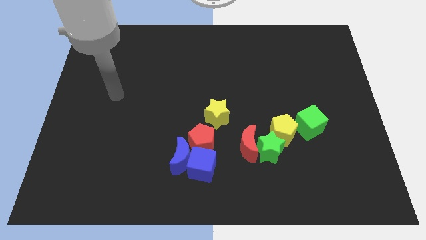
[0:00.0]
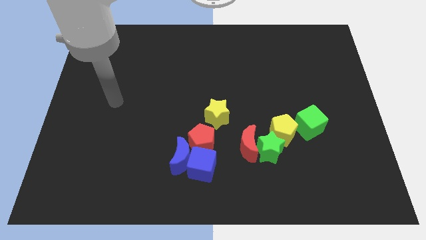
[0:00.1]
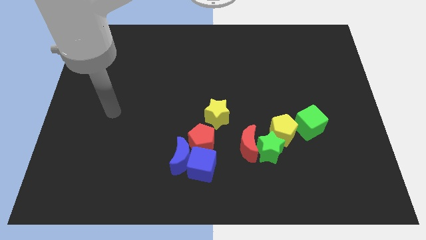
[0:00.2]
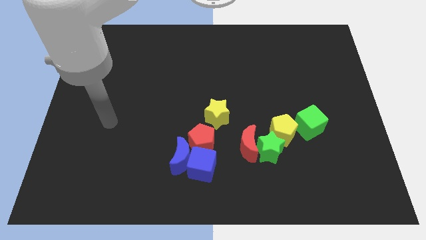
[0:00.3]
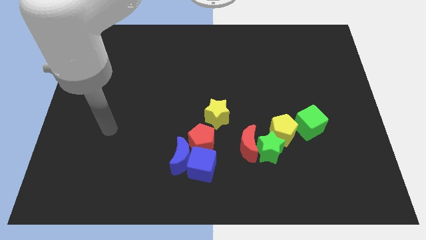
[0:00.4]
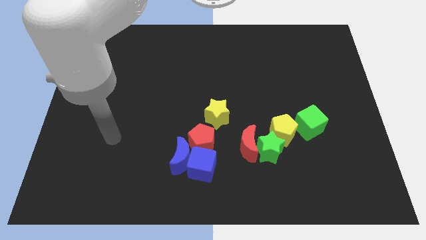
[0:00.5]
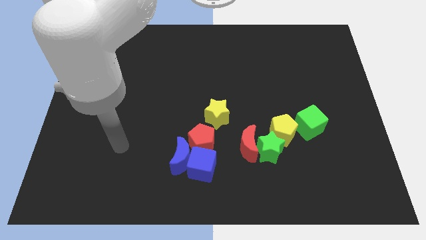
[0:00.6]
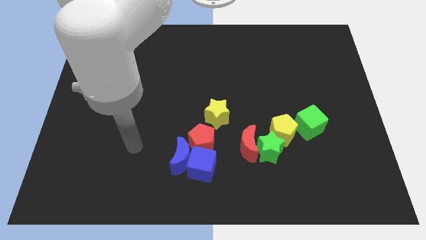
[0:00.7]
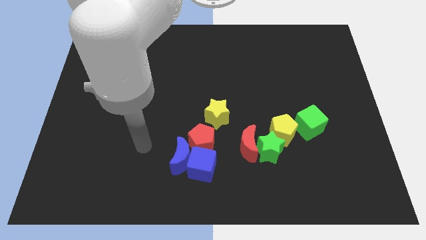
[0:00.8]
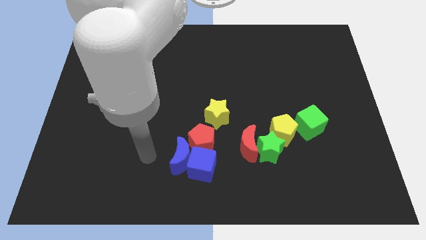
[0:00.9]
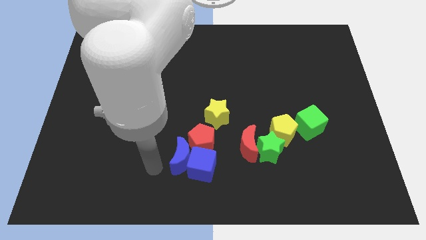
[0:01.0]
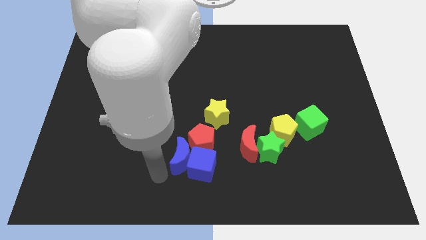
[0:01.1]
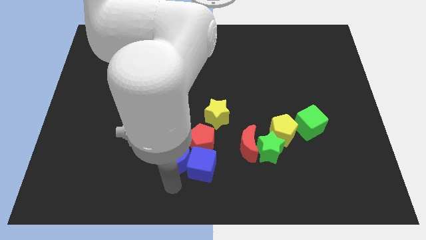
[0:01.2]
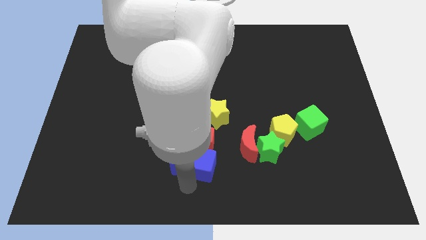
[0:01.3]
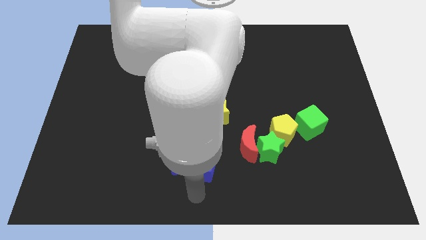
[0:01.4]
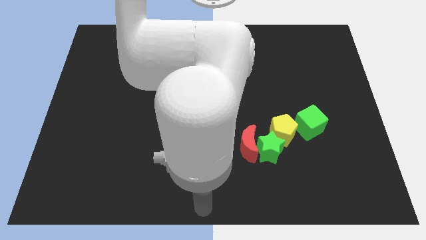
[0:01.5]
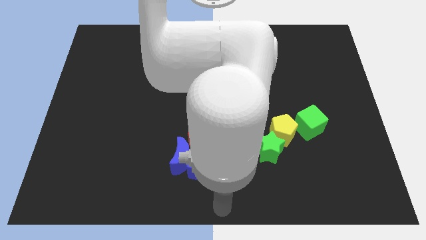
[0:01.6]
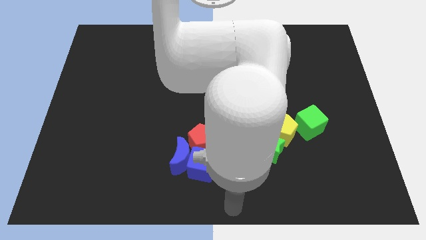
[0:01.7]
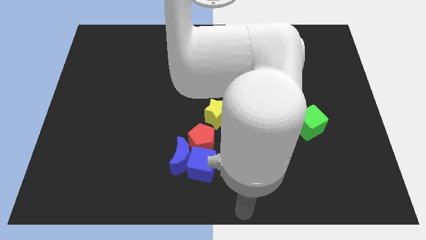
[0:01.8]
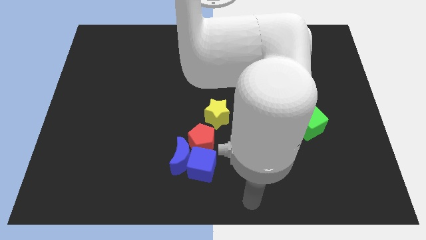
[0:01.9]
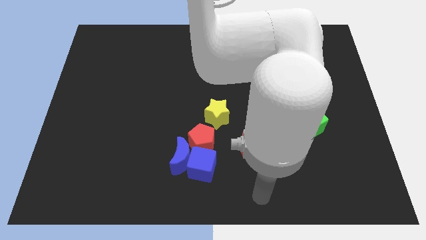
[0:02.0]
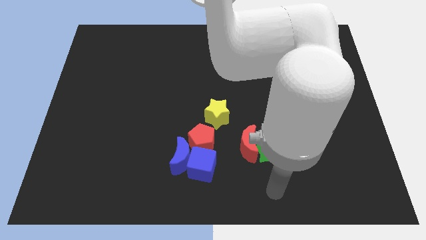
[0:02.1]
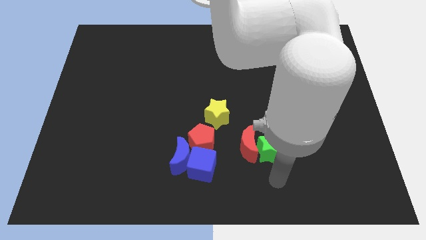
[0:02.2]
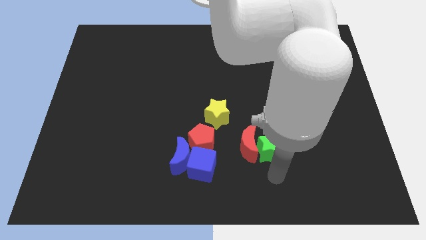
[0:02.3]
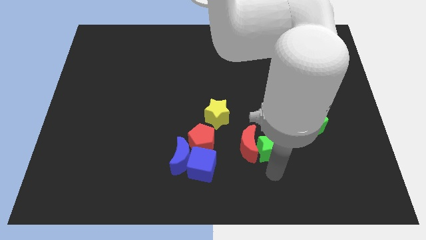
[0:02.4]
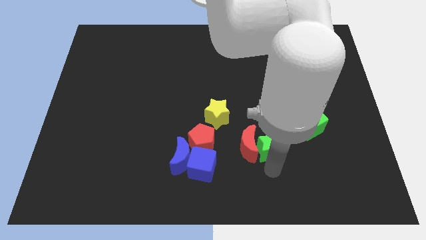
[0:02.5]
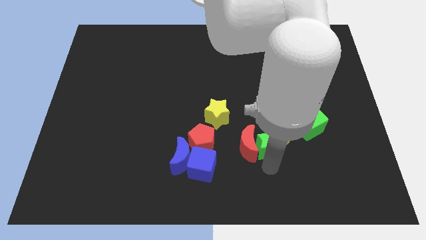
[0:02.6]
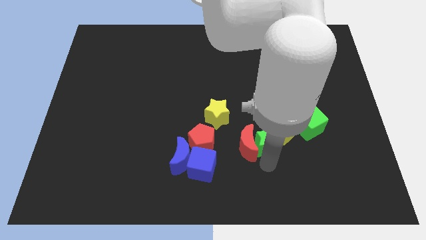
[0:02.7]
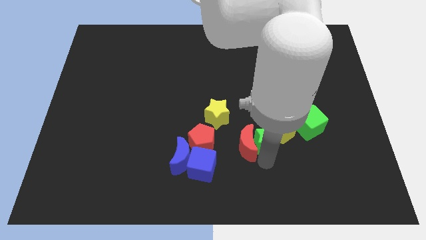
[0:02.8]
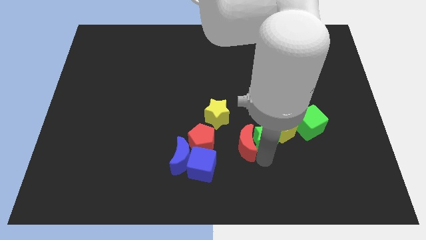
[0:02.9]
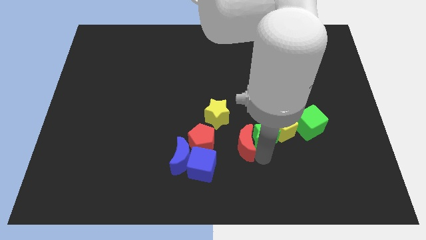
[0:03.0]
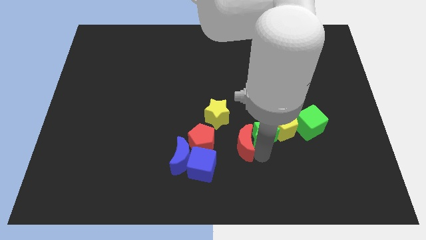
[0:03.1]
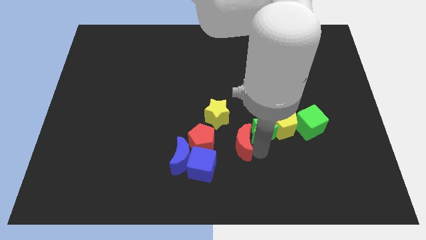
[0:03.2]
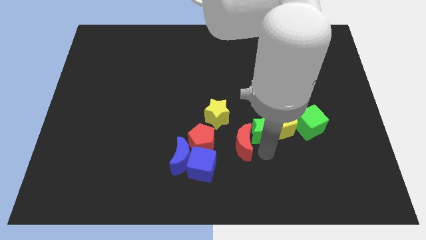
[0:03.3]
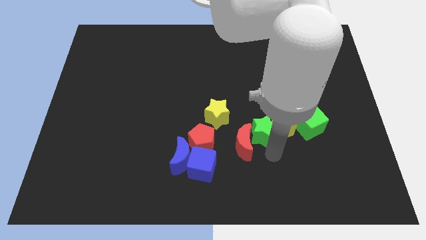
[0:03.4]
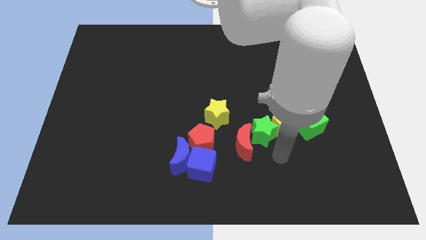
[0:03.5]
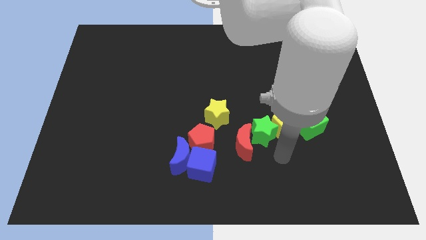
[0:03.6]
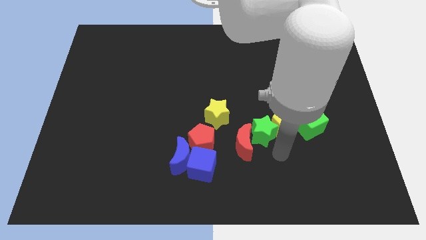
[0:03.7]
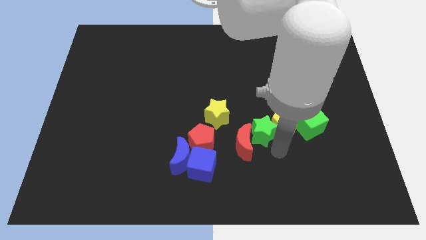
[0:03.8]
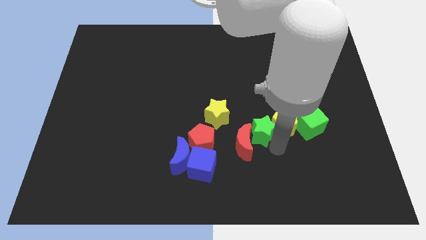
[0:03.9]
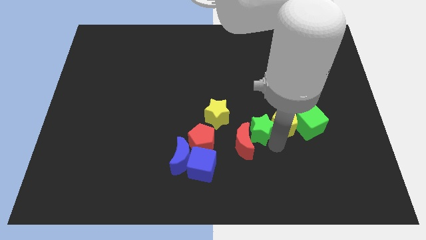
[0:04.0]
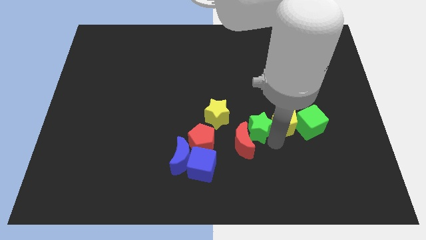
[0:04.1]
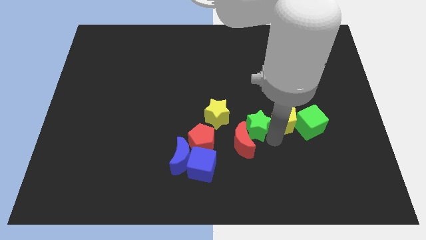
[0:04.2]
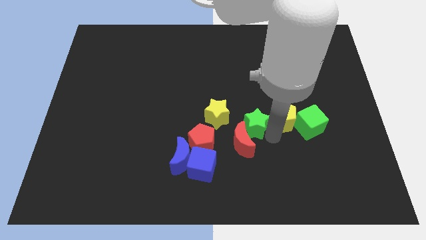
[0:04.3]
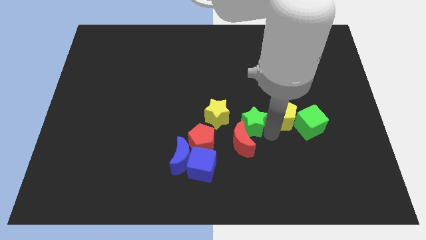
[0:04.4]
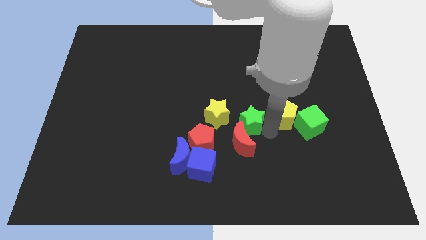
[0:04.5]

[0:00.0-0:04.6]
push the green star slightly upwards and then left

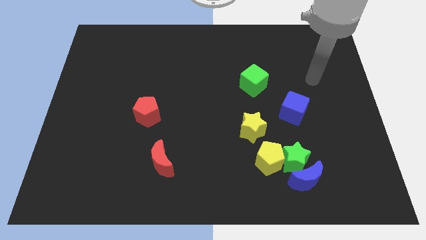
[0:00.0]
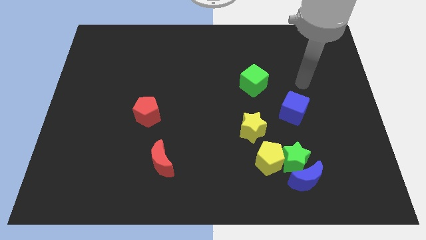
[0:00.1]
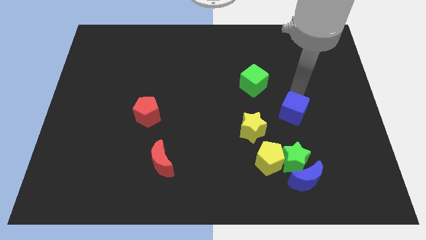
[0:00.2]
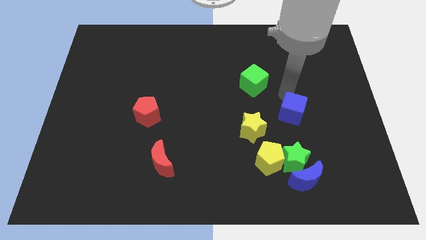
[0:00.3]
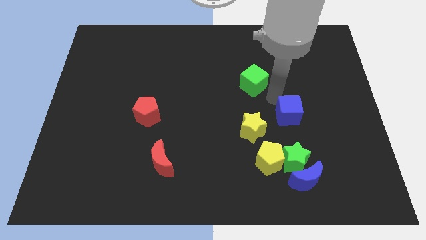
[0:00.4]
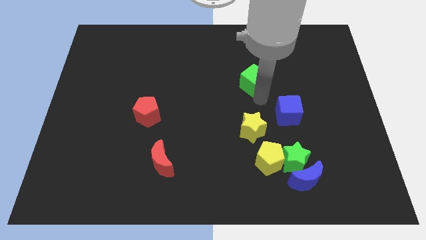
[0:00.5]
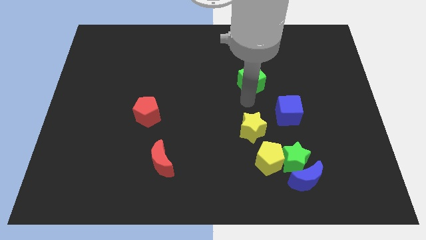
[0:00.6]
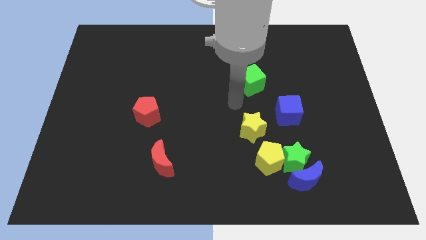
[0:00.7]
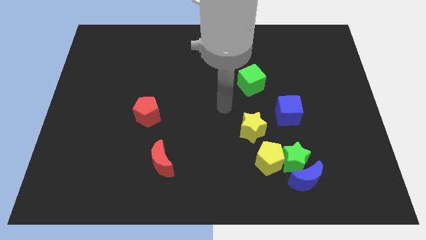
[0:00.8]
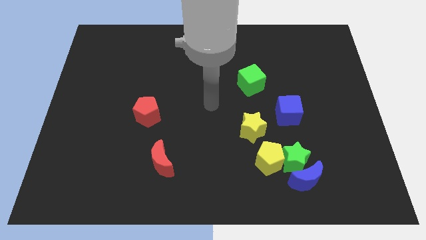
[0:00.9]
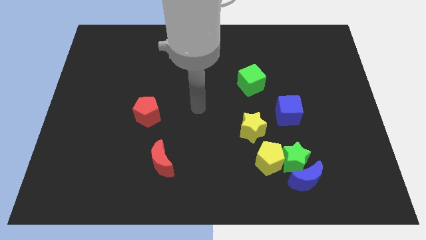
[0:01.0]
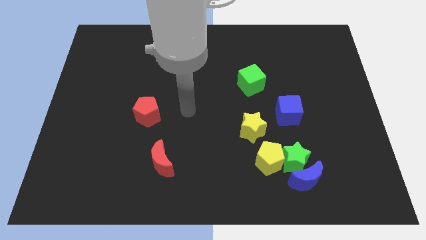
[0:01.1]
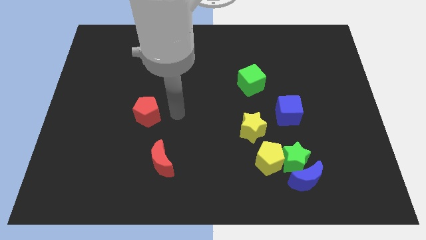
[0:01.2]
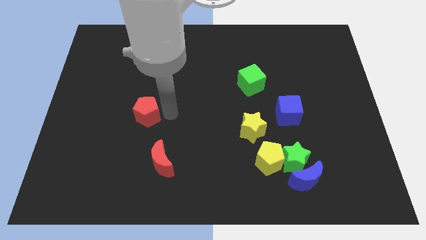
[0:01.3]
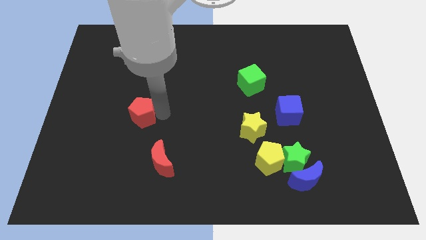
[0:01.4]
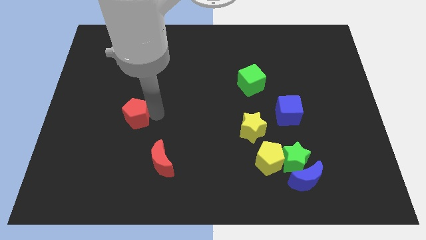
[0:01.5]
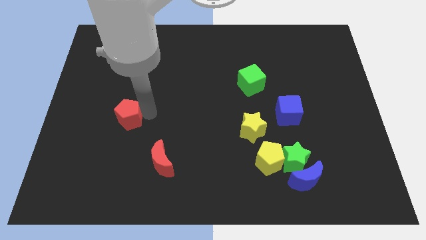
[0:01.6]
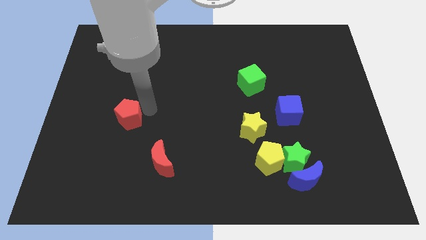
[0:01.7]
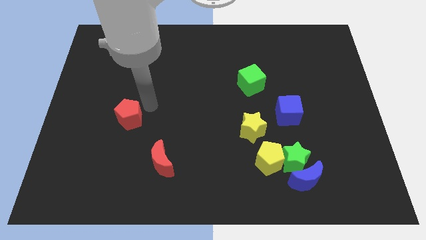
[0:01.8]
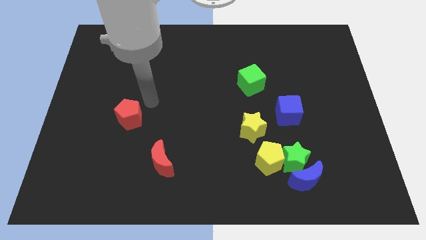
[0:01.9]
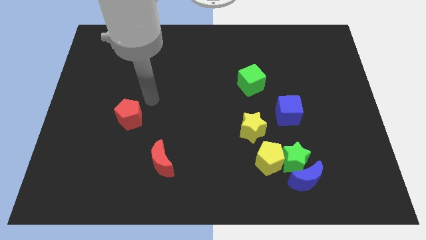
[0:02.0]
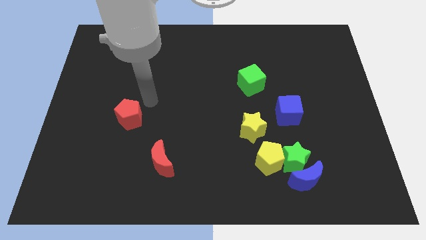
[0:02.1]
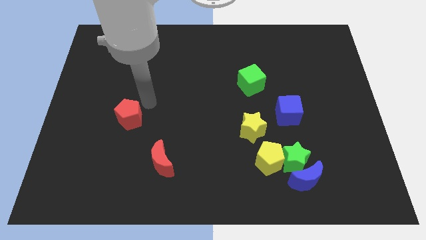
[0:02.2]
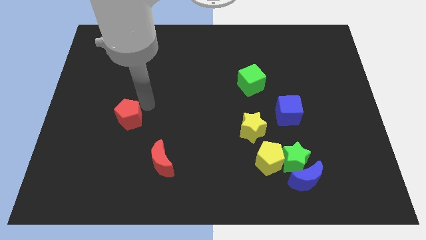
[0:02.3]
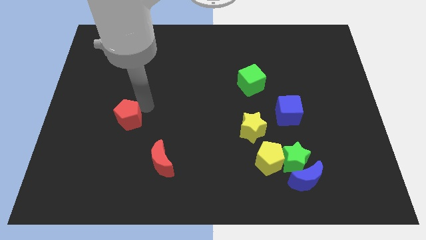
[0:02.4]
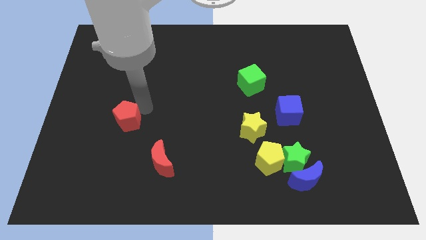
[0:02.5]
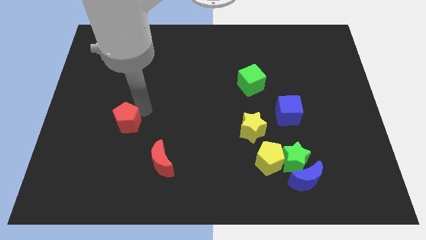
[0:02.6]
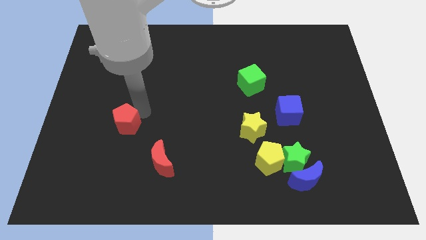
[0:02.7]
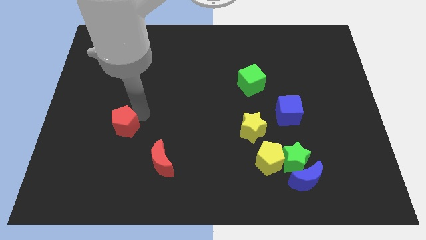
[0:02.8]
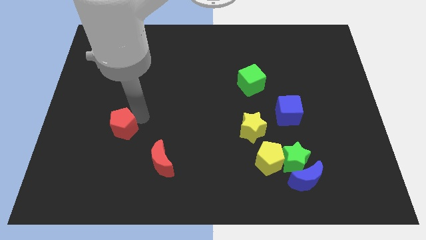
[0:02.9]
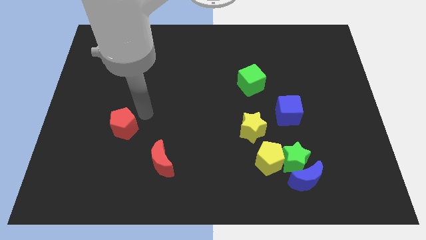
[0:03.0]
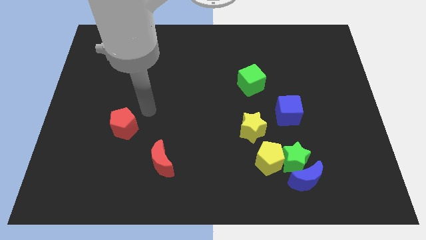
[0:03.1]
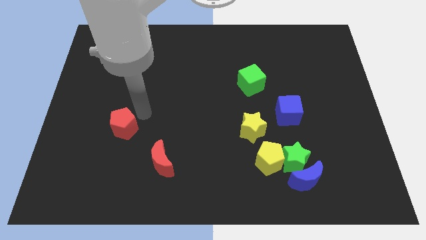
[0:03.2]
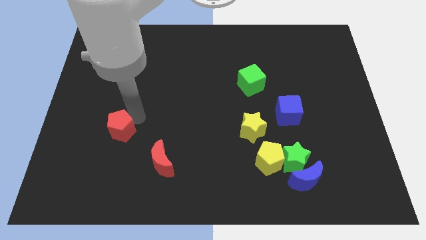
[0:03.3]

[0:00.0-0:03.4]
slide the red pentagon down and to the left diagonally somewhat
